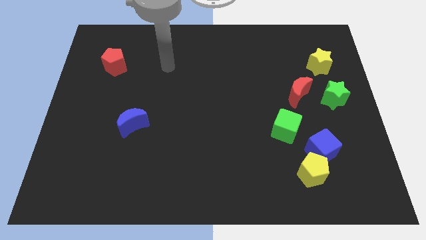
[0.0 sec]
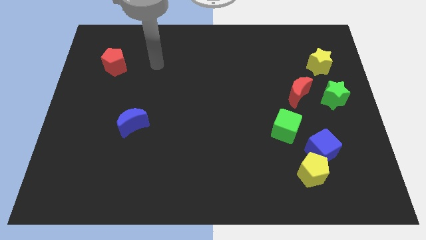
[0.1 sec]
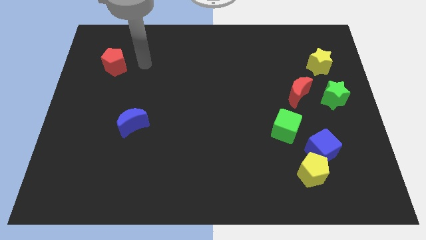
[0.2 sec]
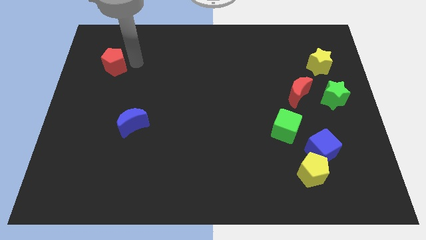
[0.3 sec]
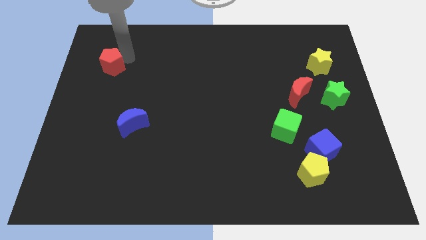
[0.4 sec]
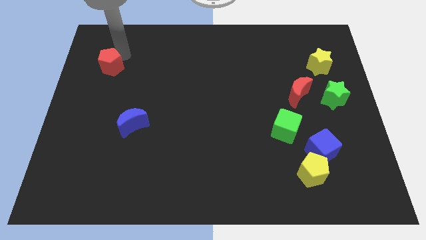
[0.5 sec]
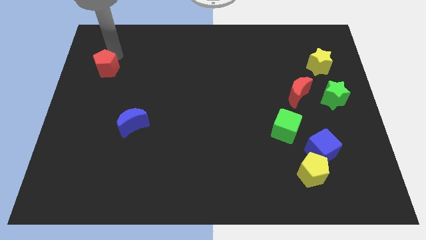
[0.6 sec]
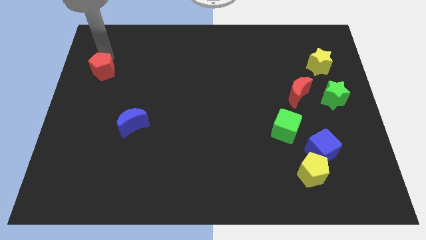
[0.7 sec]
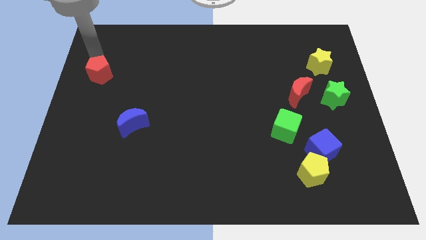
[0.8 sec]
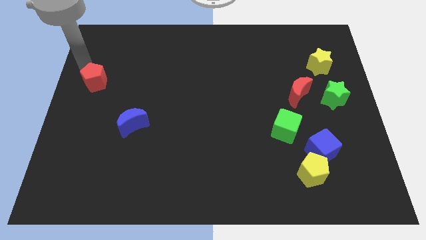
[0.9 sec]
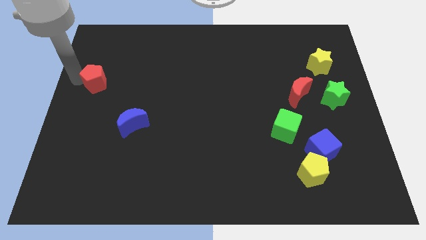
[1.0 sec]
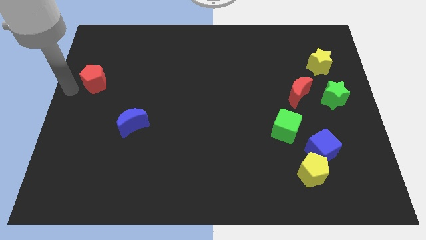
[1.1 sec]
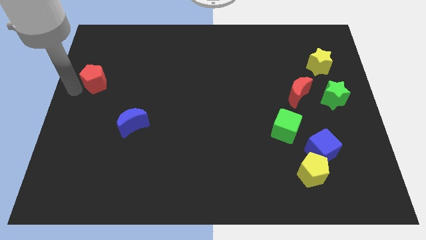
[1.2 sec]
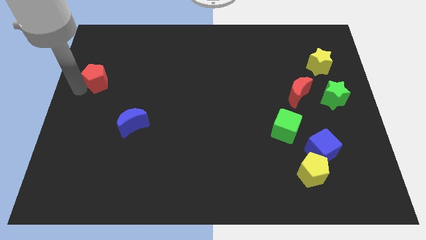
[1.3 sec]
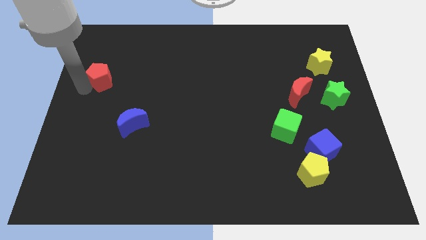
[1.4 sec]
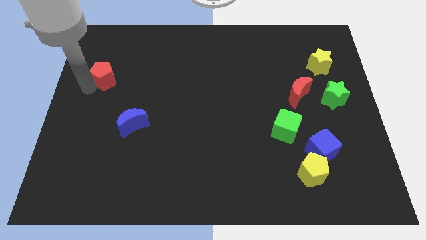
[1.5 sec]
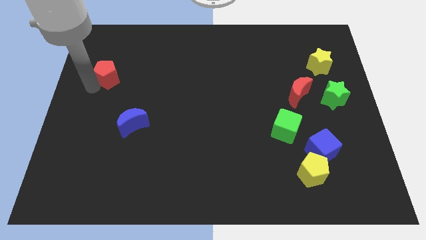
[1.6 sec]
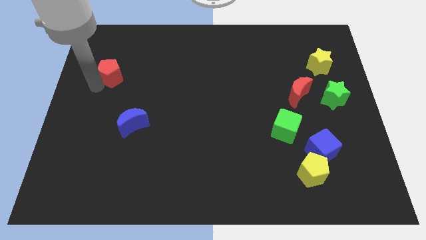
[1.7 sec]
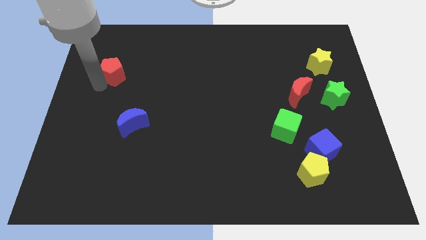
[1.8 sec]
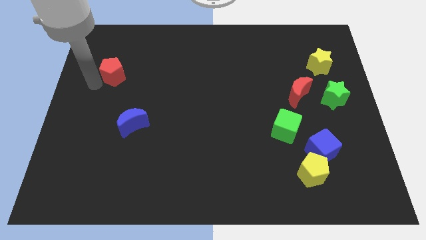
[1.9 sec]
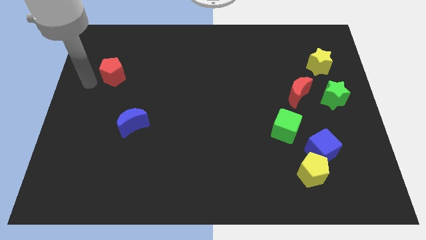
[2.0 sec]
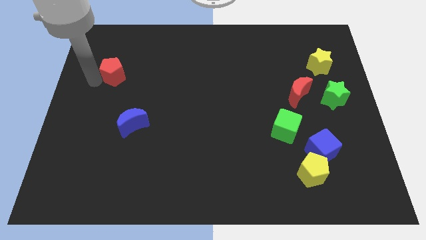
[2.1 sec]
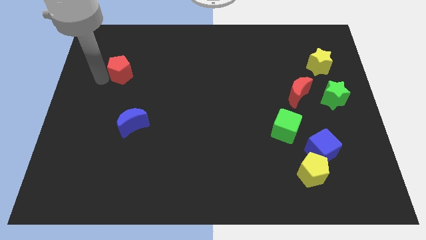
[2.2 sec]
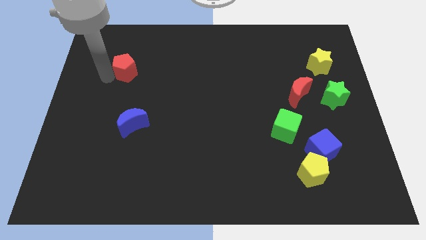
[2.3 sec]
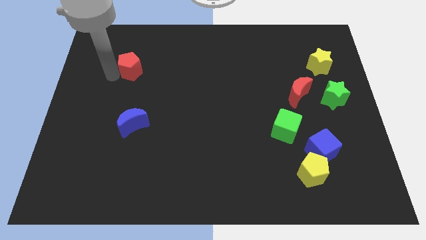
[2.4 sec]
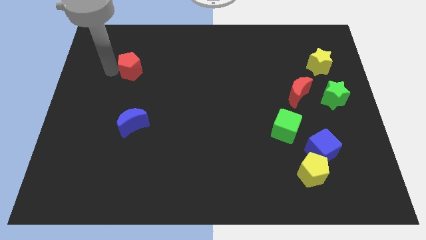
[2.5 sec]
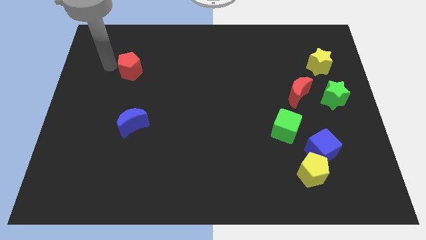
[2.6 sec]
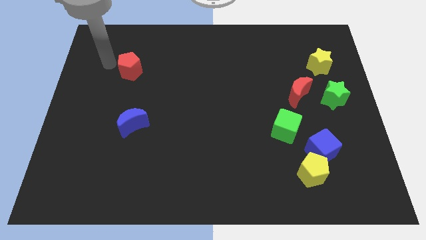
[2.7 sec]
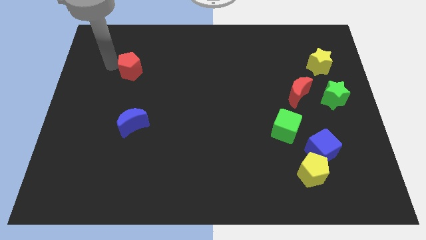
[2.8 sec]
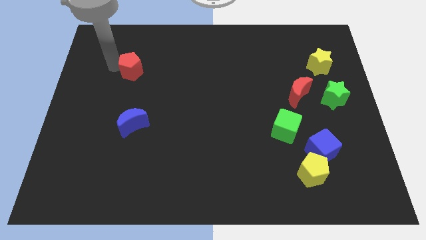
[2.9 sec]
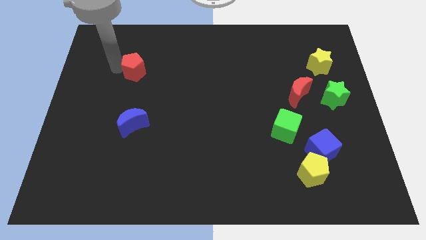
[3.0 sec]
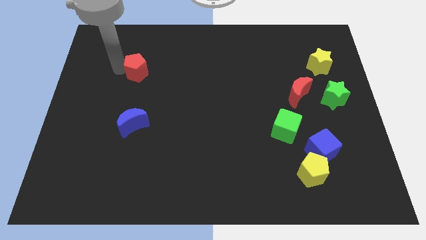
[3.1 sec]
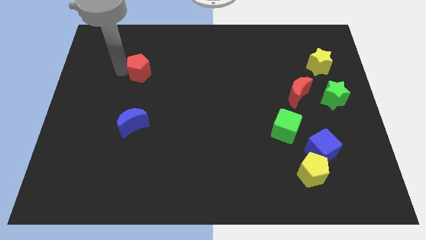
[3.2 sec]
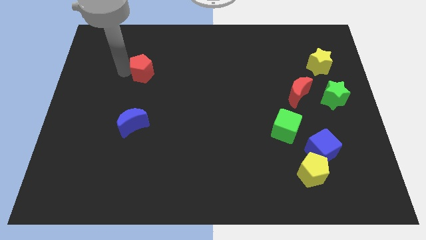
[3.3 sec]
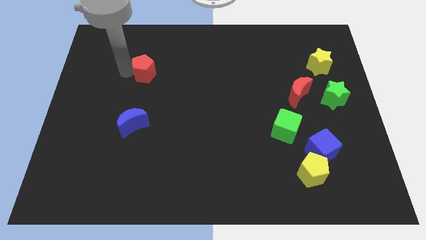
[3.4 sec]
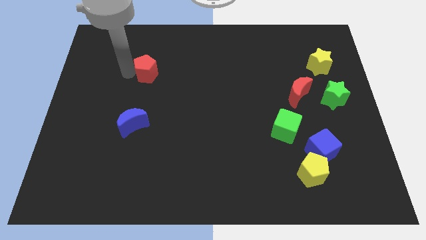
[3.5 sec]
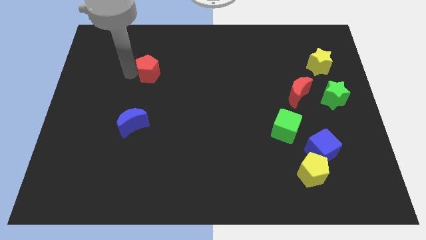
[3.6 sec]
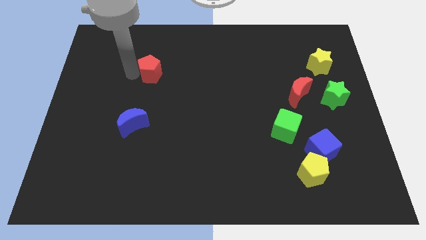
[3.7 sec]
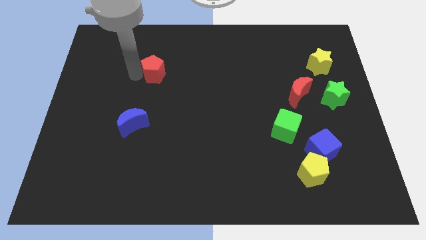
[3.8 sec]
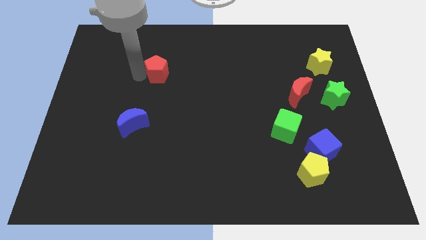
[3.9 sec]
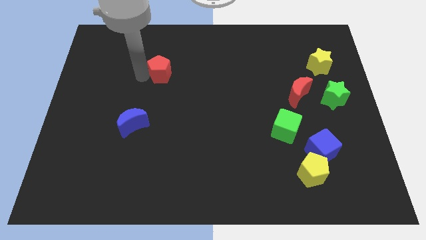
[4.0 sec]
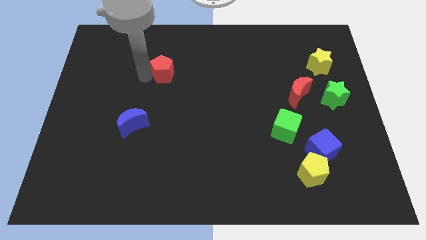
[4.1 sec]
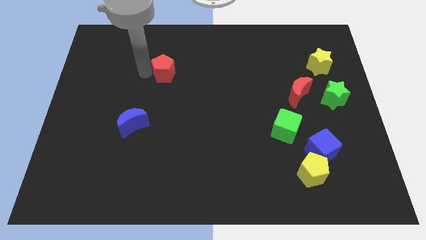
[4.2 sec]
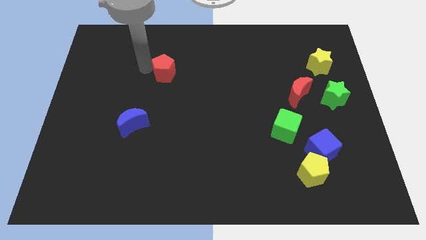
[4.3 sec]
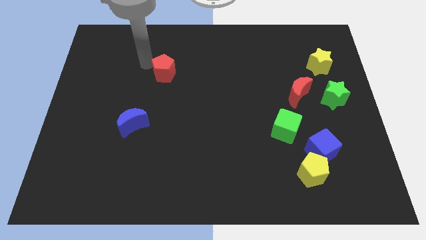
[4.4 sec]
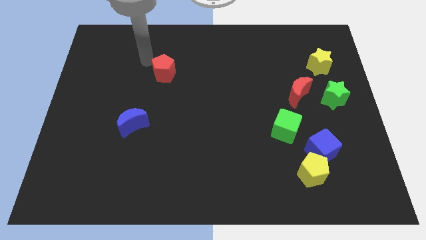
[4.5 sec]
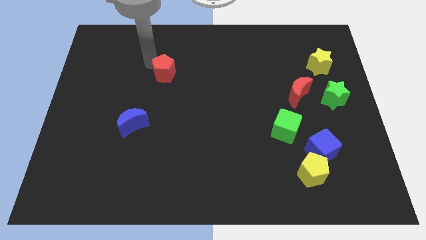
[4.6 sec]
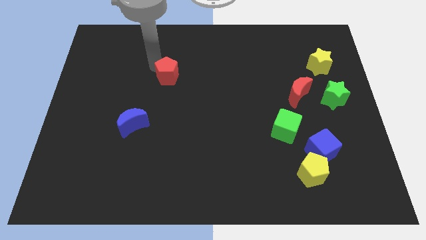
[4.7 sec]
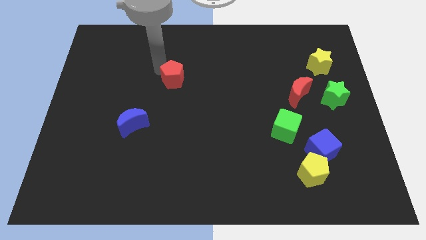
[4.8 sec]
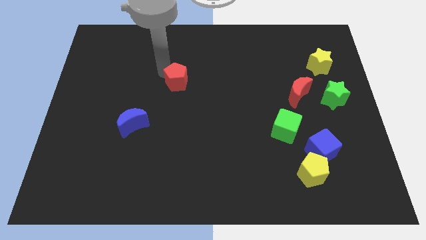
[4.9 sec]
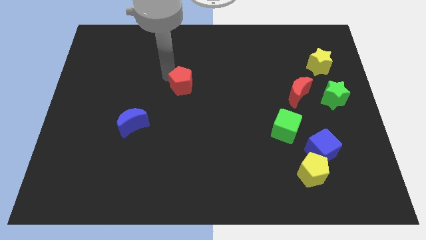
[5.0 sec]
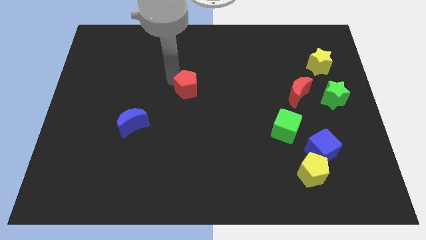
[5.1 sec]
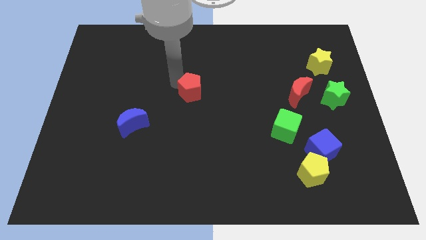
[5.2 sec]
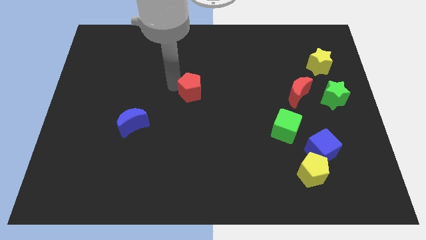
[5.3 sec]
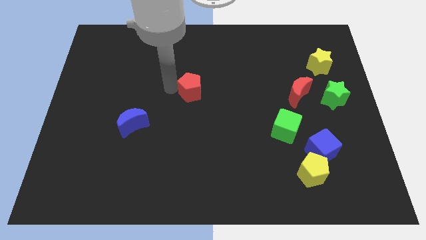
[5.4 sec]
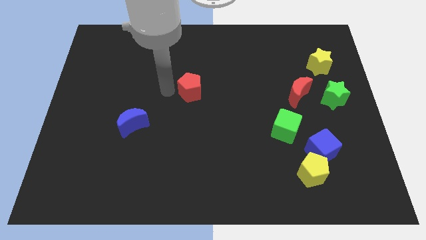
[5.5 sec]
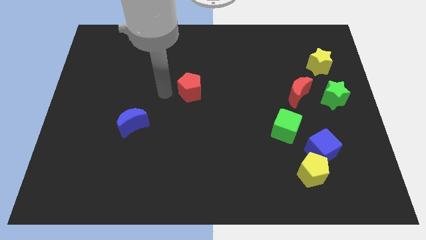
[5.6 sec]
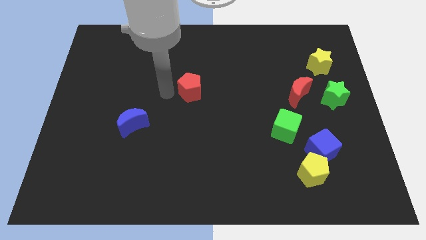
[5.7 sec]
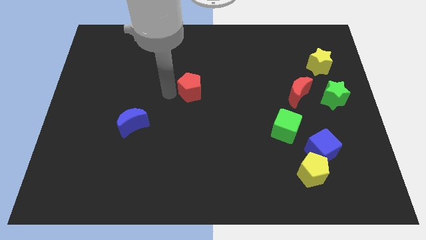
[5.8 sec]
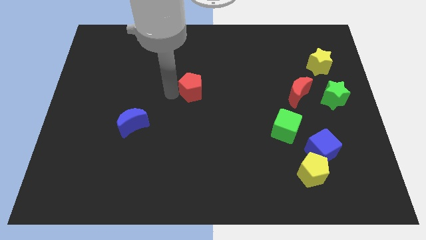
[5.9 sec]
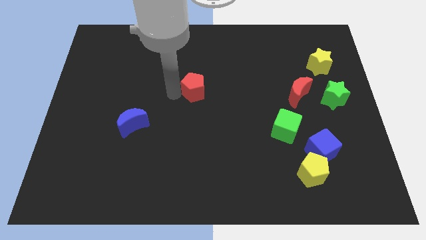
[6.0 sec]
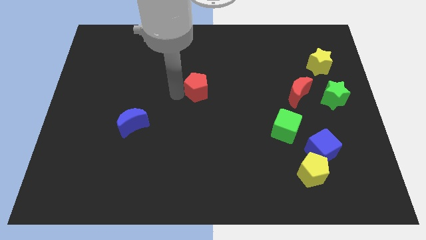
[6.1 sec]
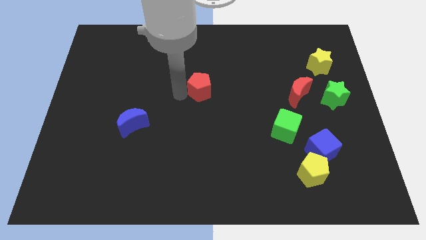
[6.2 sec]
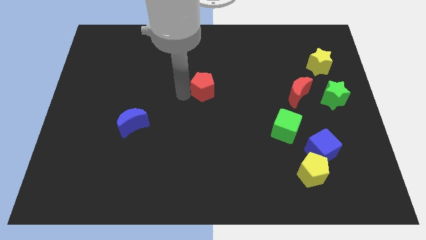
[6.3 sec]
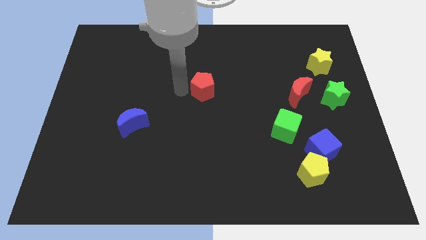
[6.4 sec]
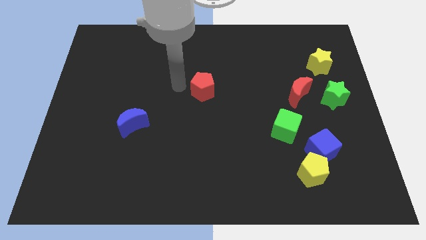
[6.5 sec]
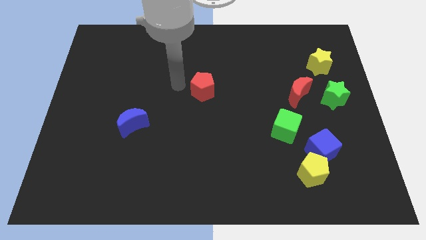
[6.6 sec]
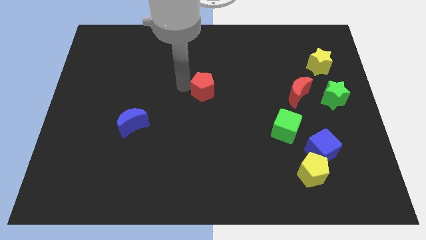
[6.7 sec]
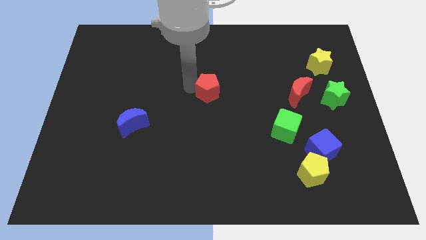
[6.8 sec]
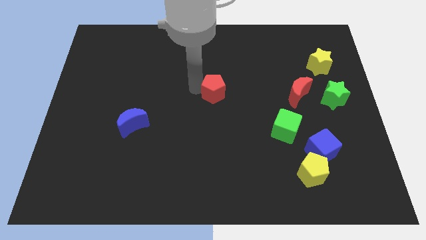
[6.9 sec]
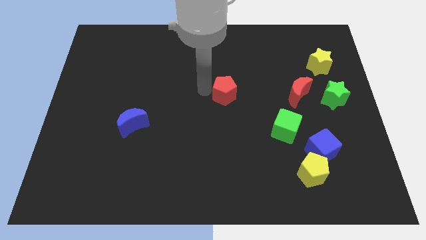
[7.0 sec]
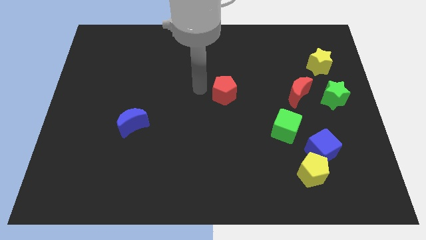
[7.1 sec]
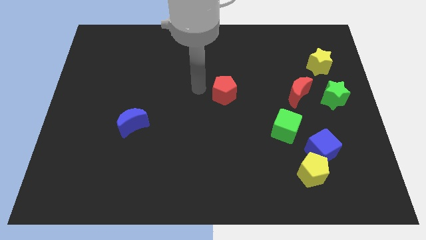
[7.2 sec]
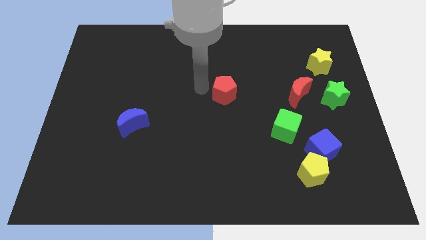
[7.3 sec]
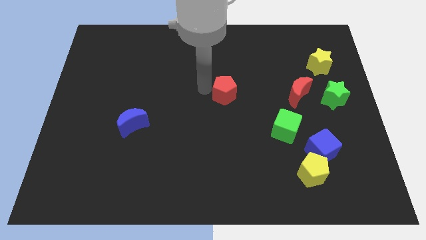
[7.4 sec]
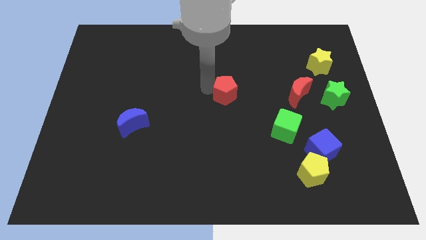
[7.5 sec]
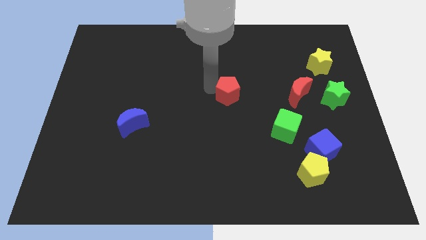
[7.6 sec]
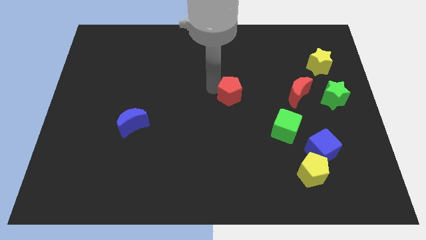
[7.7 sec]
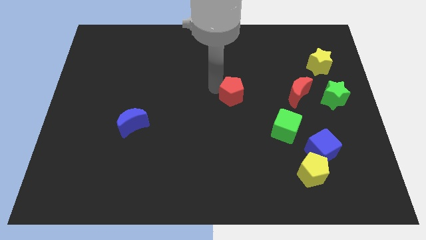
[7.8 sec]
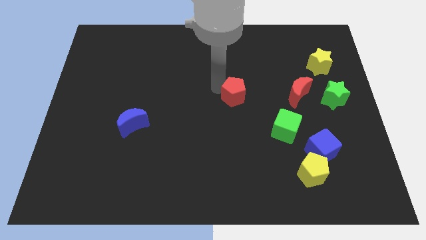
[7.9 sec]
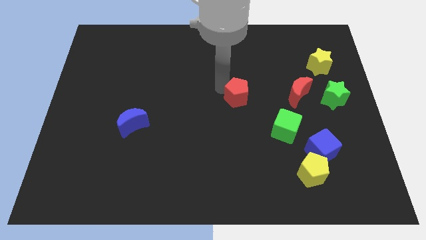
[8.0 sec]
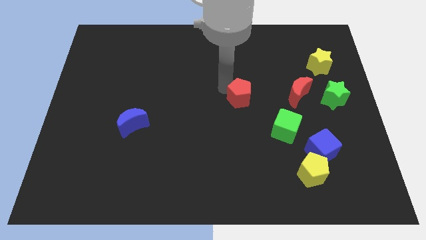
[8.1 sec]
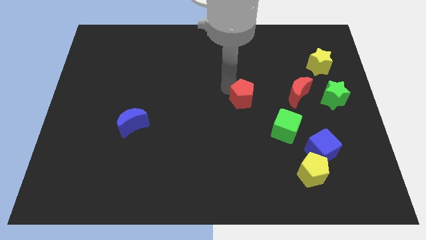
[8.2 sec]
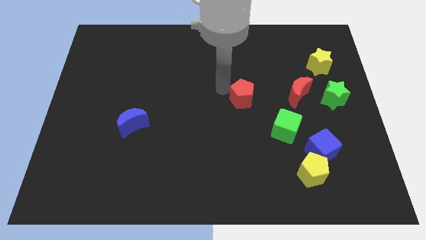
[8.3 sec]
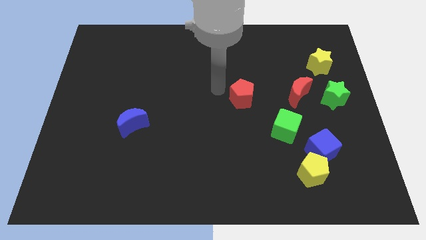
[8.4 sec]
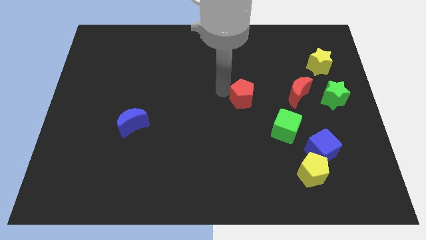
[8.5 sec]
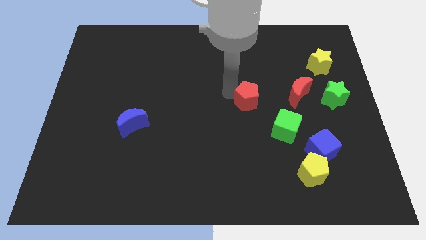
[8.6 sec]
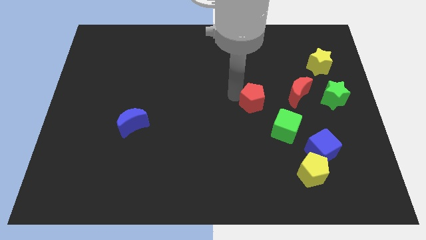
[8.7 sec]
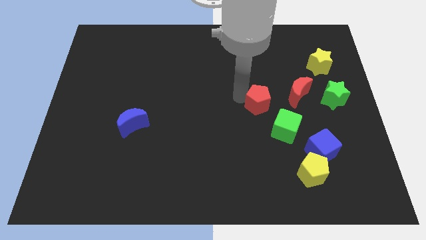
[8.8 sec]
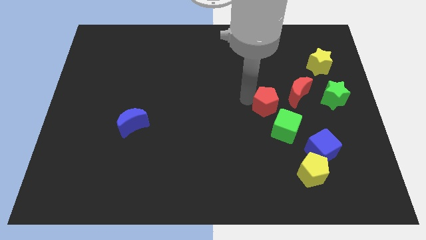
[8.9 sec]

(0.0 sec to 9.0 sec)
push the red pentagon to the bottom left of the red moon
